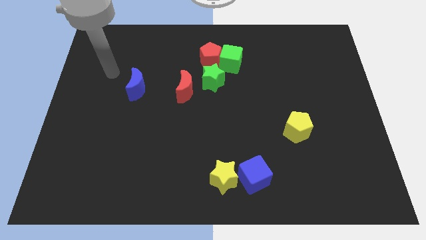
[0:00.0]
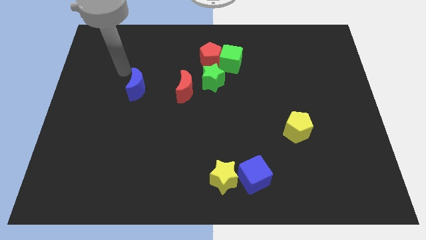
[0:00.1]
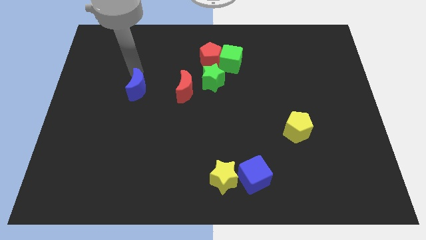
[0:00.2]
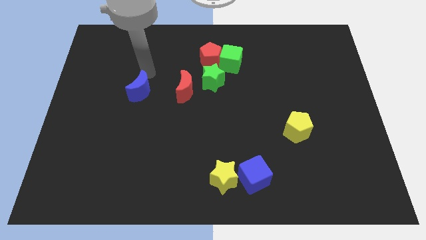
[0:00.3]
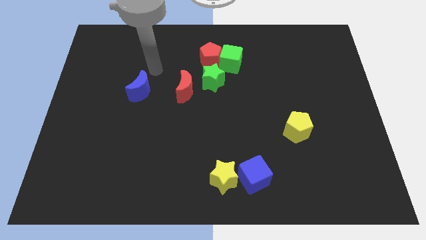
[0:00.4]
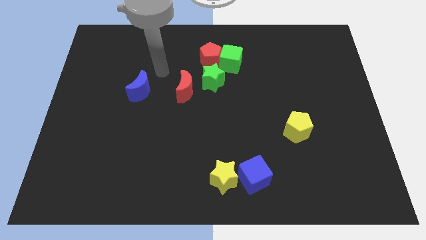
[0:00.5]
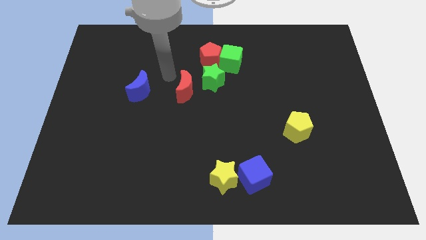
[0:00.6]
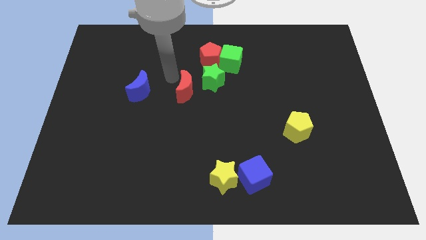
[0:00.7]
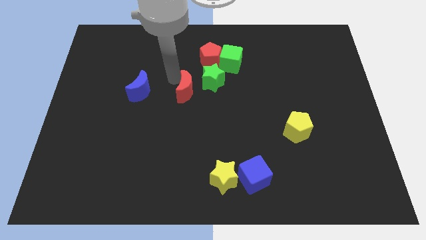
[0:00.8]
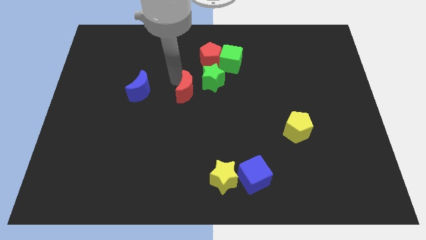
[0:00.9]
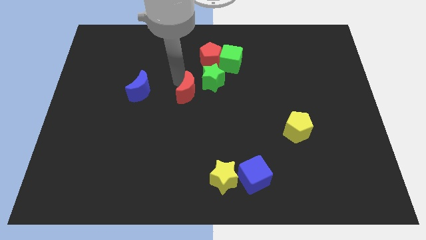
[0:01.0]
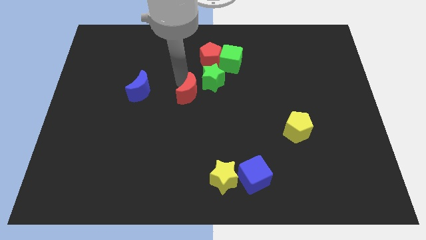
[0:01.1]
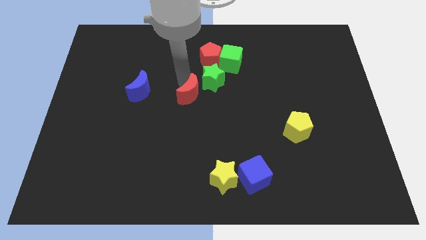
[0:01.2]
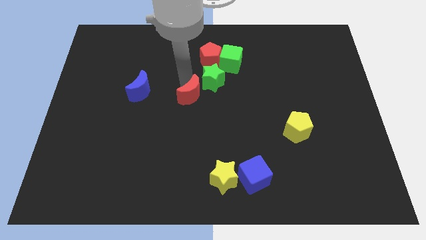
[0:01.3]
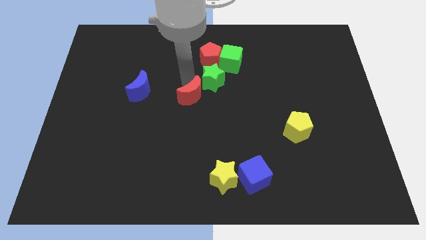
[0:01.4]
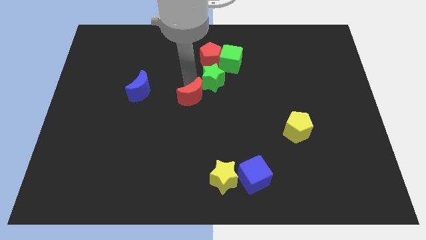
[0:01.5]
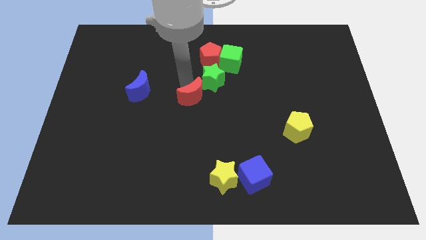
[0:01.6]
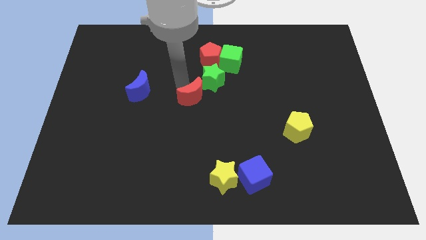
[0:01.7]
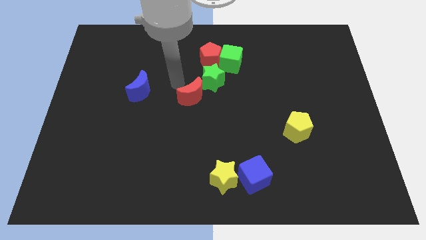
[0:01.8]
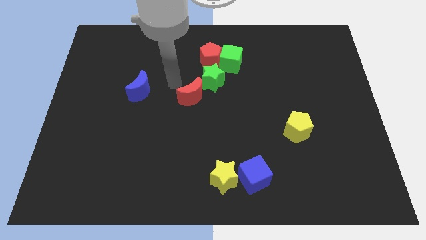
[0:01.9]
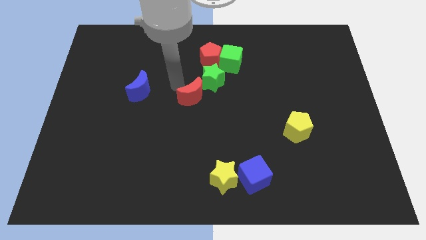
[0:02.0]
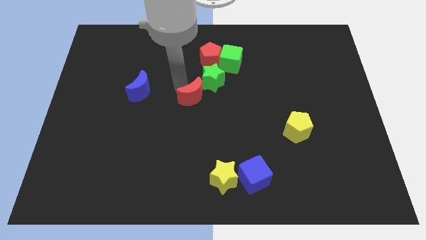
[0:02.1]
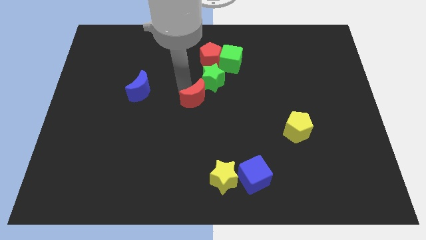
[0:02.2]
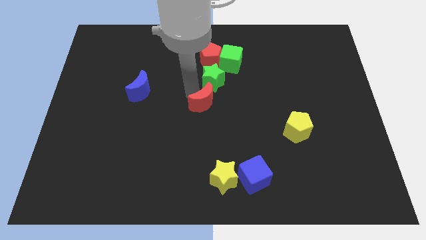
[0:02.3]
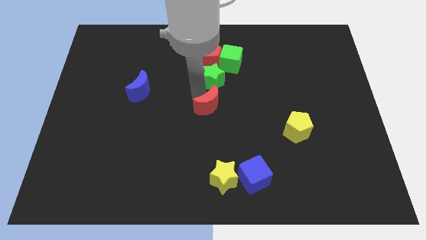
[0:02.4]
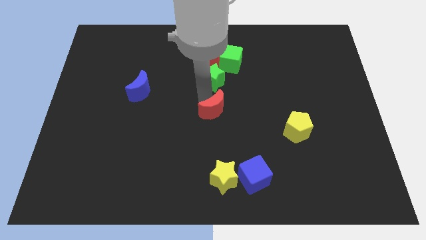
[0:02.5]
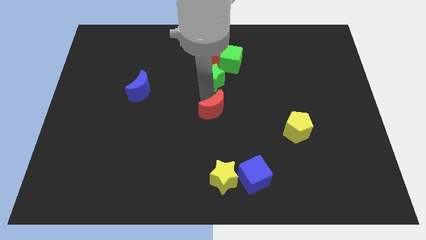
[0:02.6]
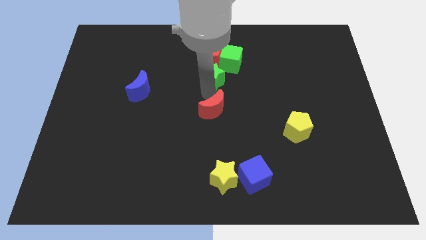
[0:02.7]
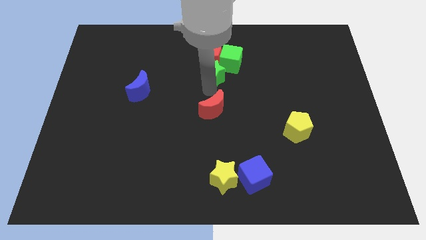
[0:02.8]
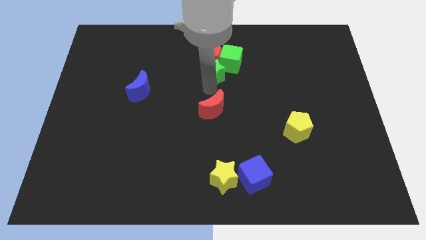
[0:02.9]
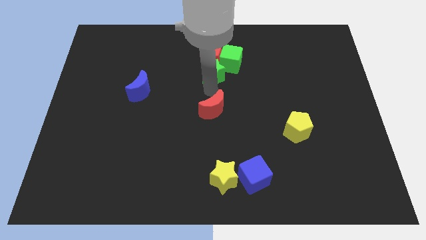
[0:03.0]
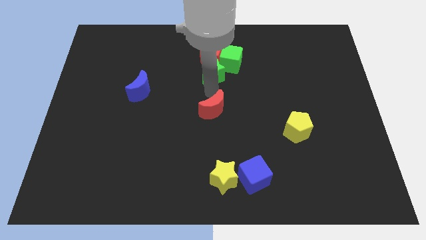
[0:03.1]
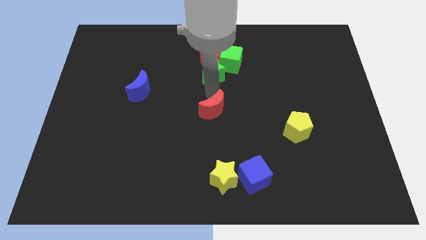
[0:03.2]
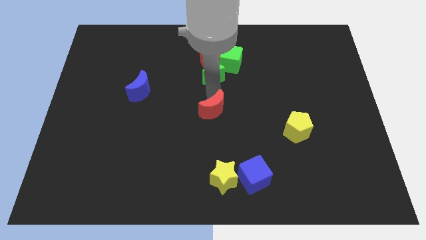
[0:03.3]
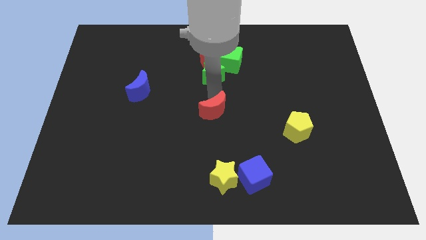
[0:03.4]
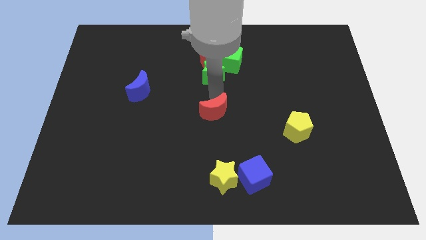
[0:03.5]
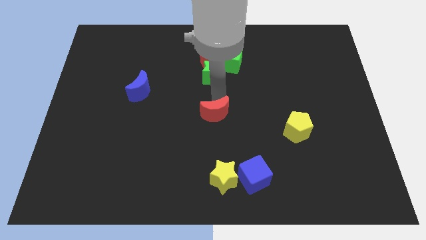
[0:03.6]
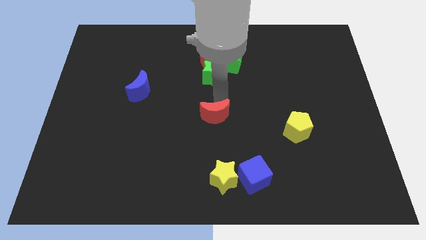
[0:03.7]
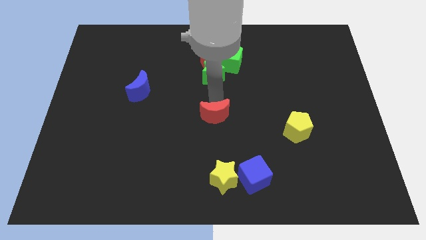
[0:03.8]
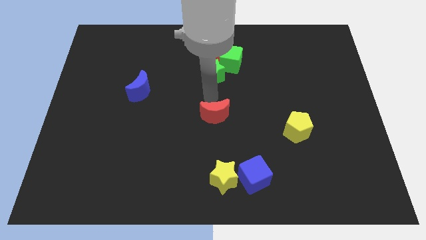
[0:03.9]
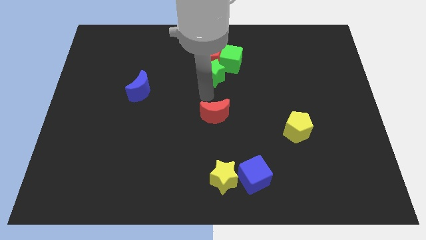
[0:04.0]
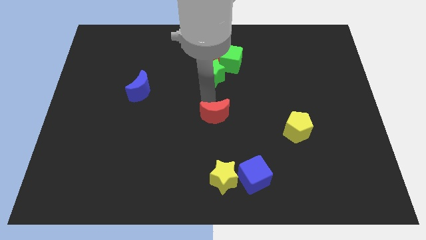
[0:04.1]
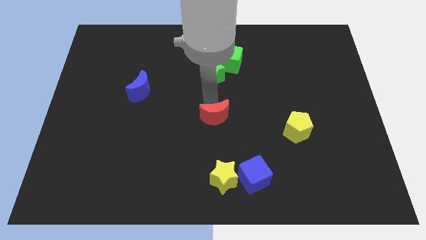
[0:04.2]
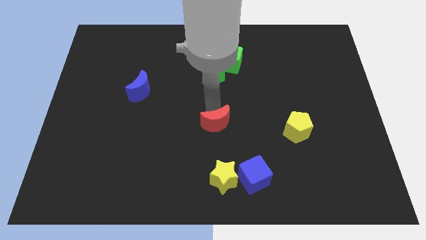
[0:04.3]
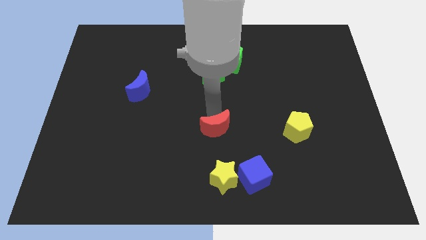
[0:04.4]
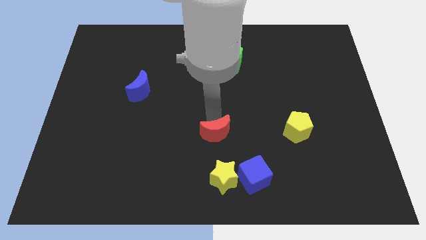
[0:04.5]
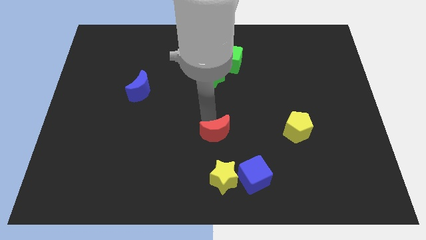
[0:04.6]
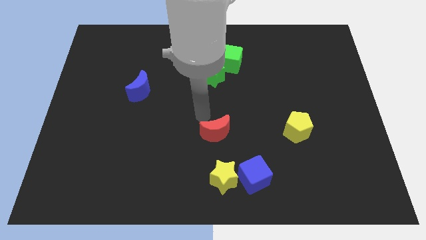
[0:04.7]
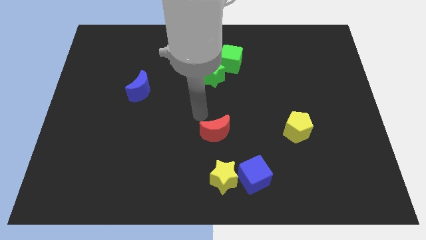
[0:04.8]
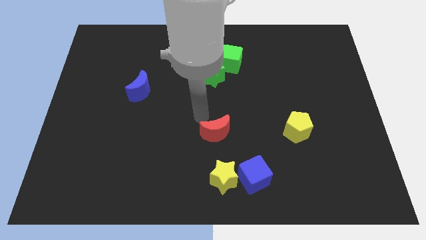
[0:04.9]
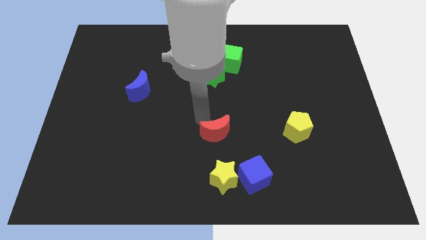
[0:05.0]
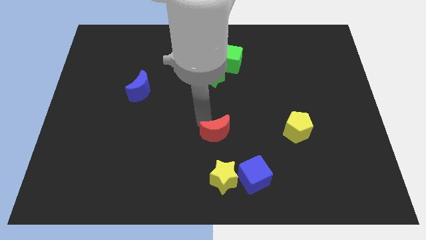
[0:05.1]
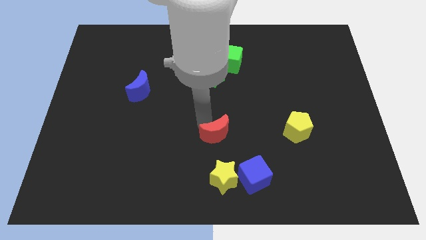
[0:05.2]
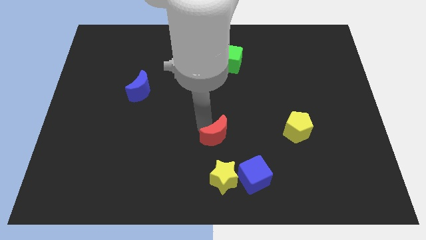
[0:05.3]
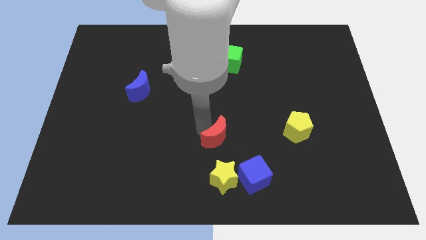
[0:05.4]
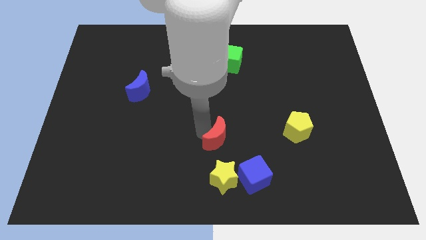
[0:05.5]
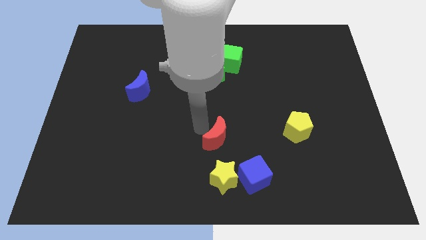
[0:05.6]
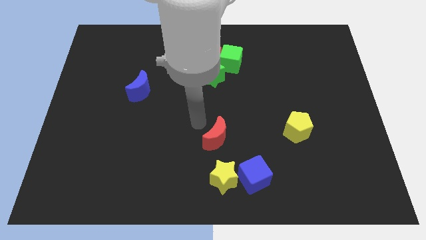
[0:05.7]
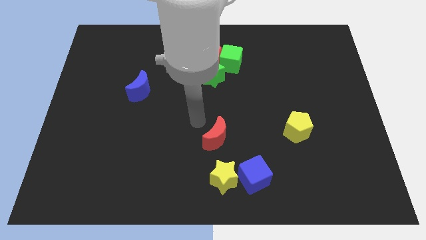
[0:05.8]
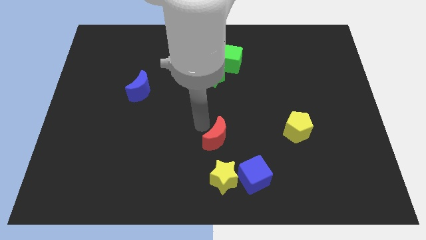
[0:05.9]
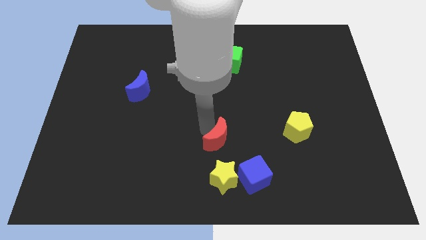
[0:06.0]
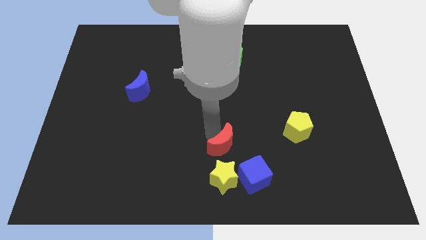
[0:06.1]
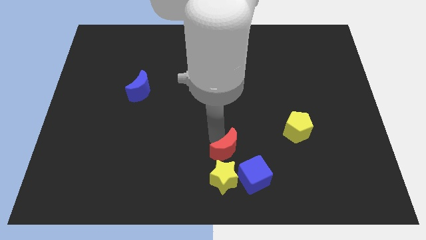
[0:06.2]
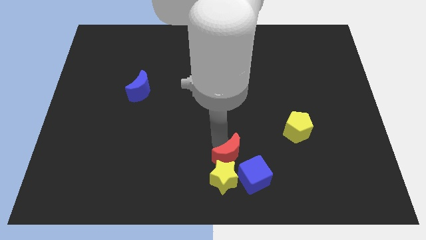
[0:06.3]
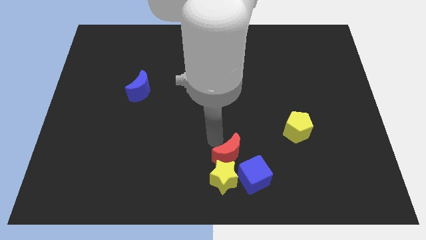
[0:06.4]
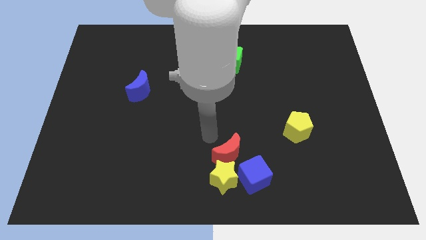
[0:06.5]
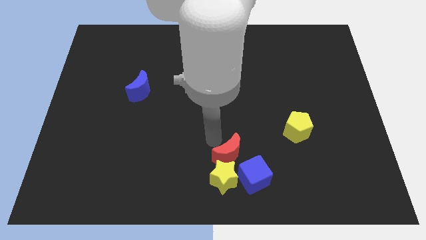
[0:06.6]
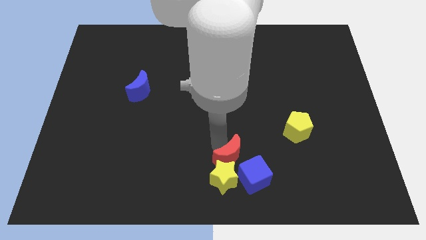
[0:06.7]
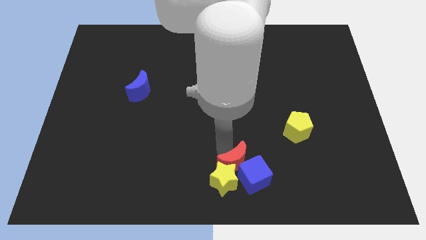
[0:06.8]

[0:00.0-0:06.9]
push the red moon towards the blue cube

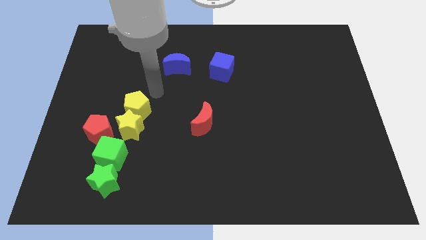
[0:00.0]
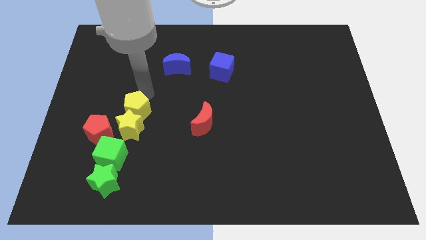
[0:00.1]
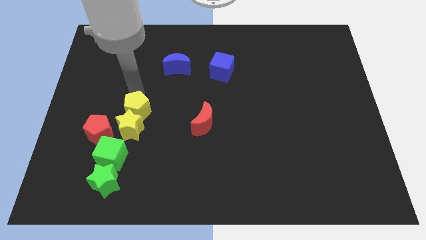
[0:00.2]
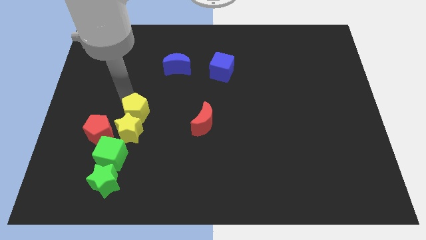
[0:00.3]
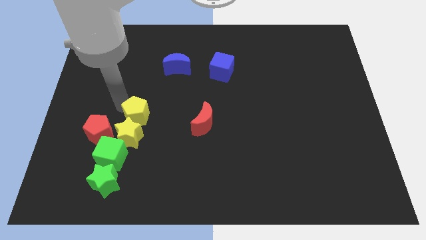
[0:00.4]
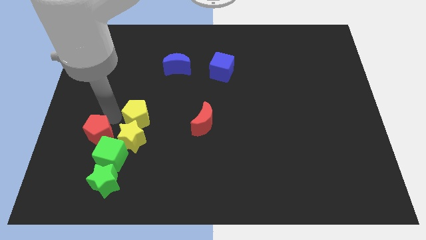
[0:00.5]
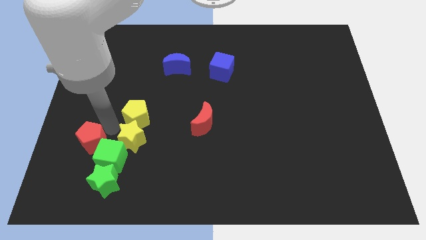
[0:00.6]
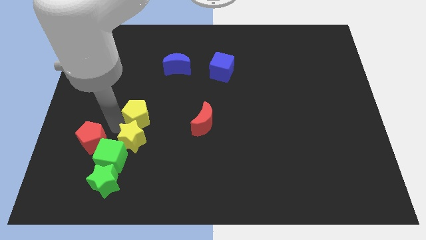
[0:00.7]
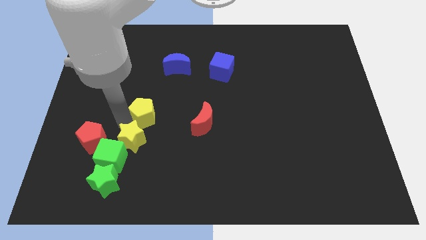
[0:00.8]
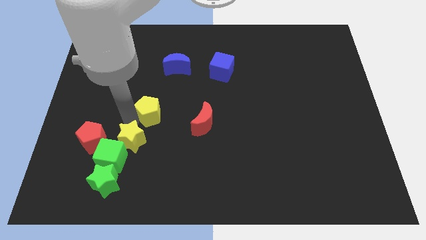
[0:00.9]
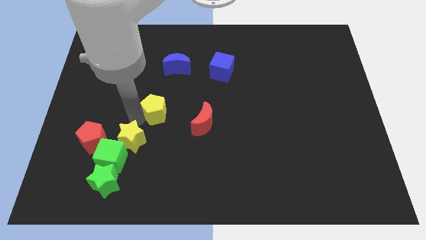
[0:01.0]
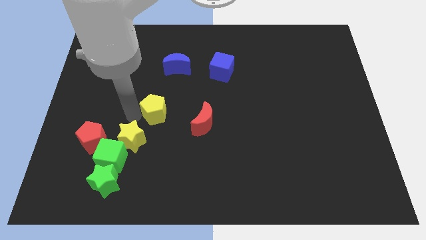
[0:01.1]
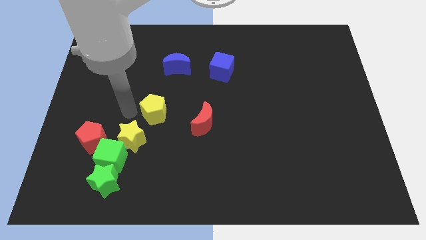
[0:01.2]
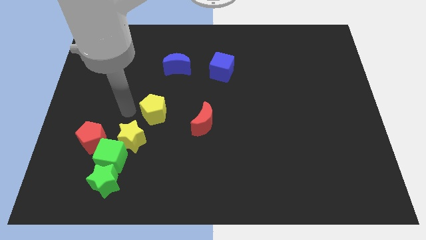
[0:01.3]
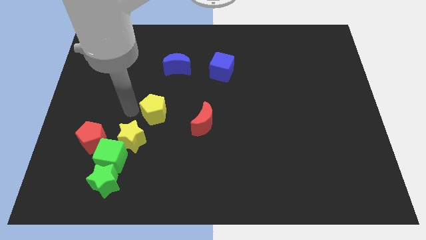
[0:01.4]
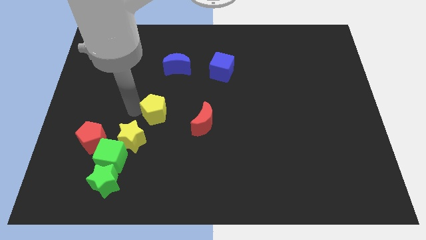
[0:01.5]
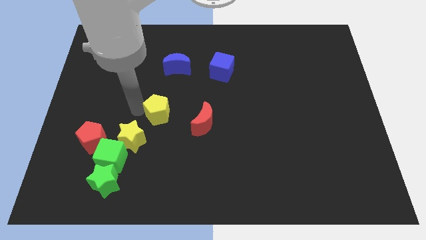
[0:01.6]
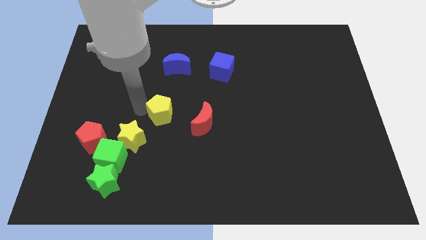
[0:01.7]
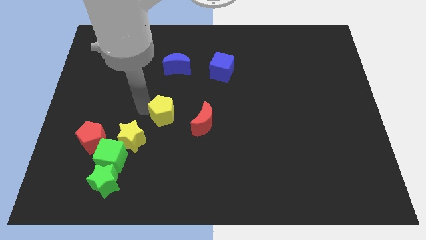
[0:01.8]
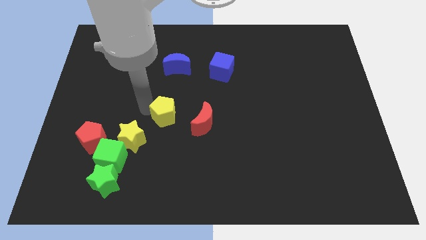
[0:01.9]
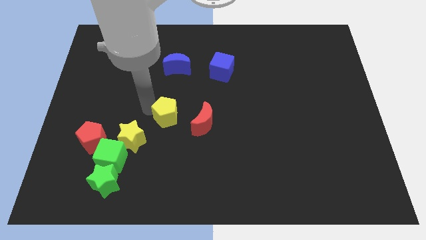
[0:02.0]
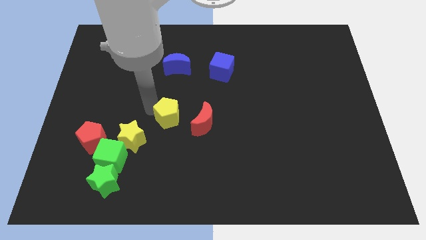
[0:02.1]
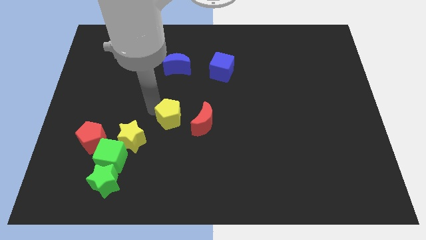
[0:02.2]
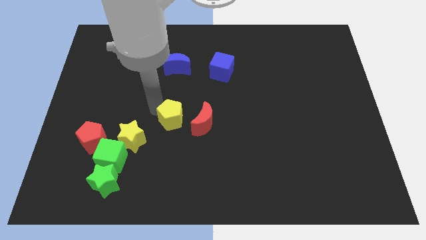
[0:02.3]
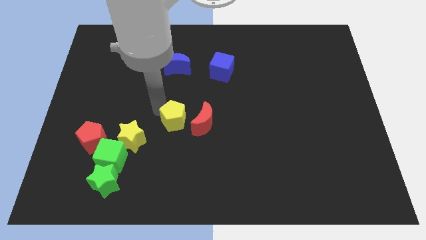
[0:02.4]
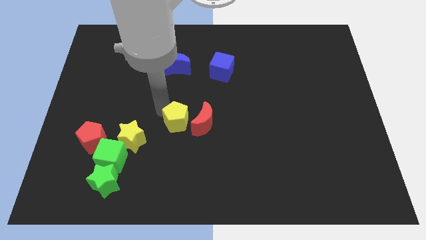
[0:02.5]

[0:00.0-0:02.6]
slide the yellow pentagon towards the red moon
